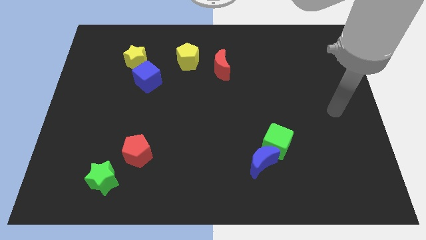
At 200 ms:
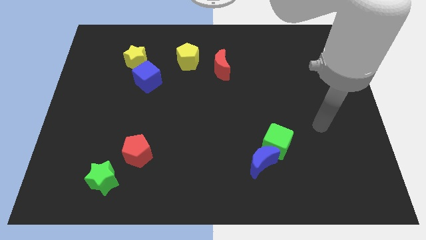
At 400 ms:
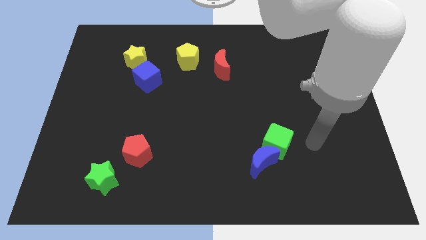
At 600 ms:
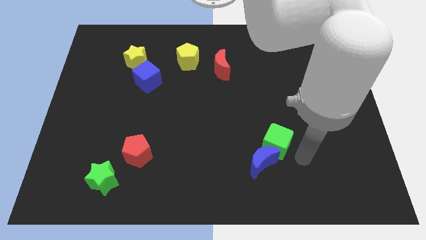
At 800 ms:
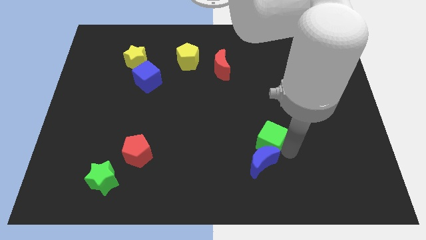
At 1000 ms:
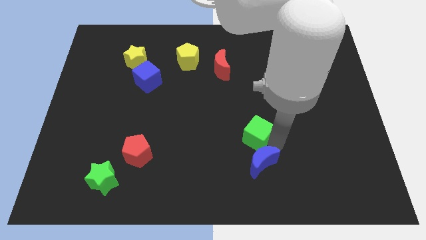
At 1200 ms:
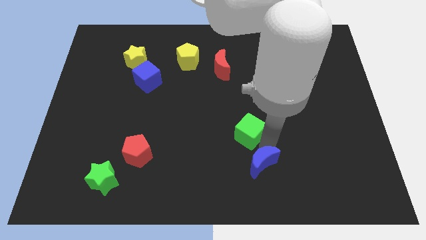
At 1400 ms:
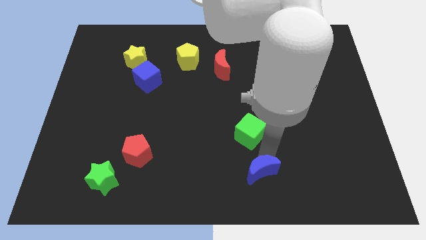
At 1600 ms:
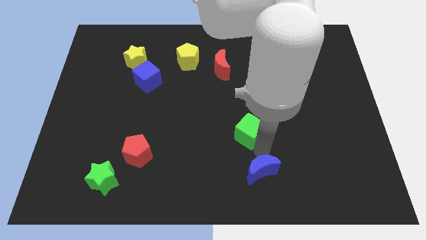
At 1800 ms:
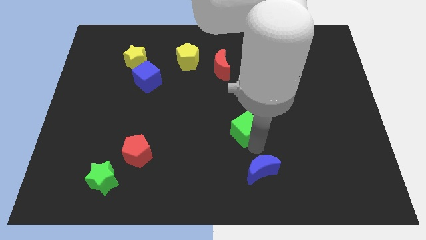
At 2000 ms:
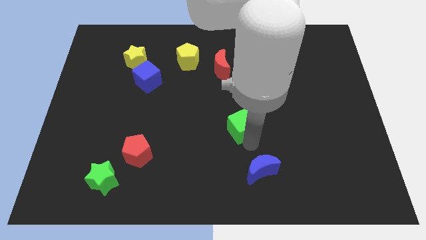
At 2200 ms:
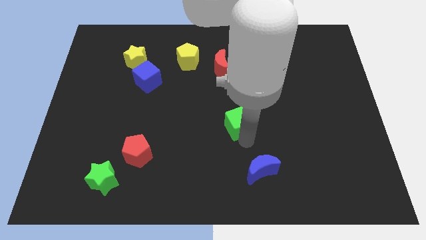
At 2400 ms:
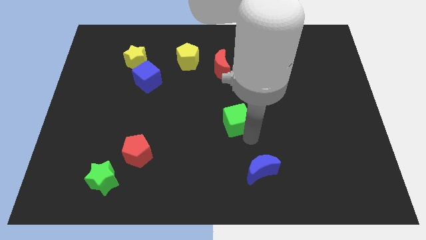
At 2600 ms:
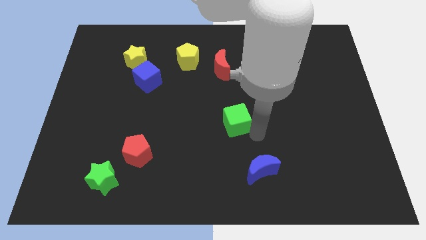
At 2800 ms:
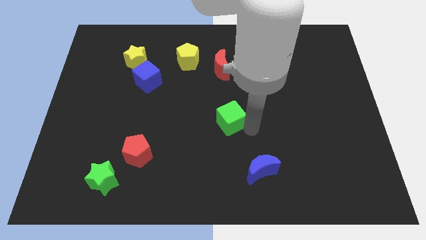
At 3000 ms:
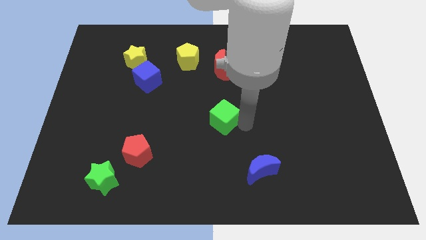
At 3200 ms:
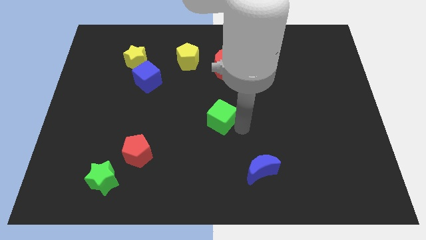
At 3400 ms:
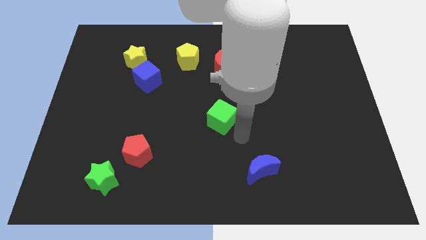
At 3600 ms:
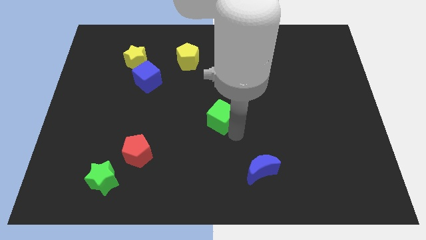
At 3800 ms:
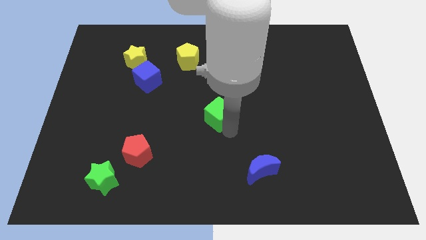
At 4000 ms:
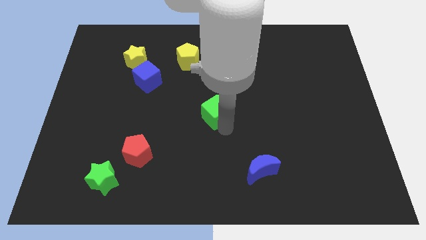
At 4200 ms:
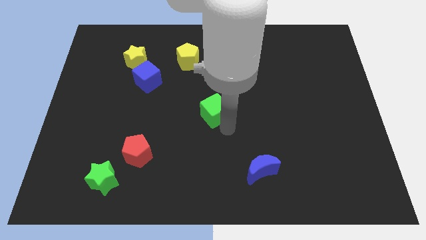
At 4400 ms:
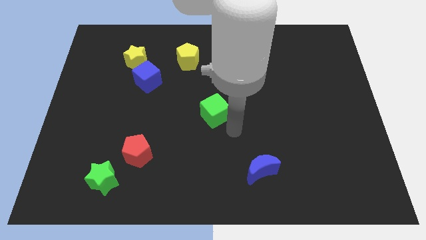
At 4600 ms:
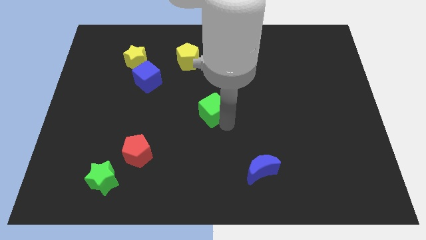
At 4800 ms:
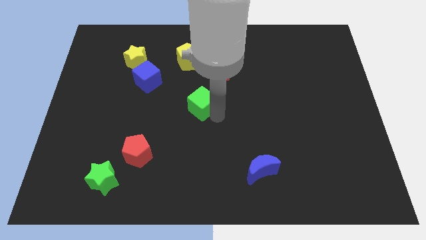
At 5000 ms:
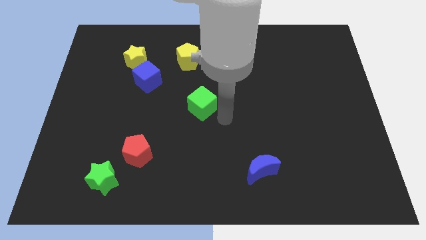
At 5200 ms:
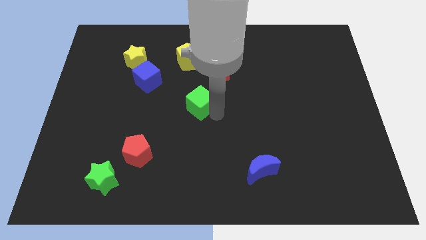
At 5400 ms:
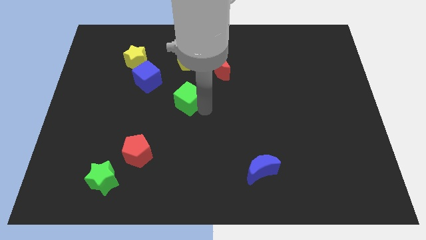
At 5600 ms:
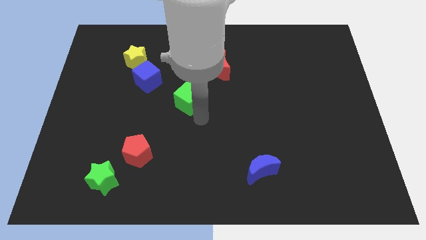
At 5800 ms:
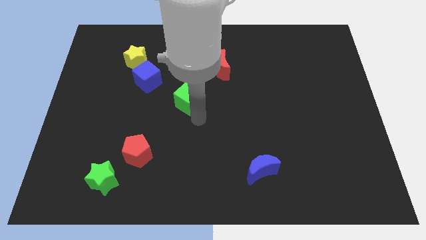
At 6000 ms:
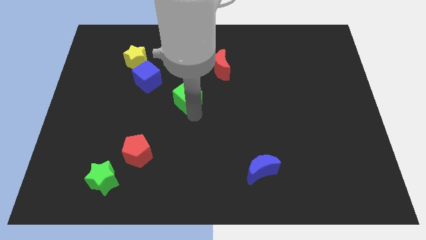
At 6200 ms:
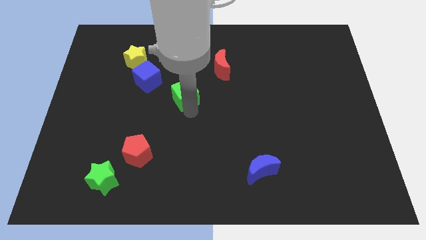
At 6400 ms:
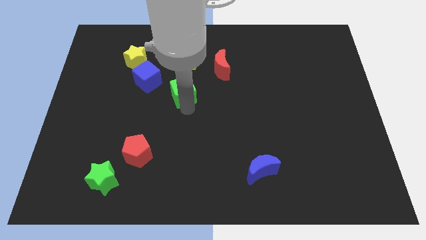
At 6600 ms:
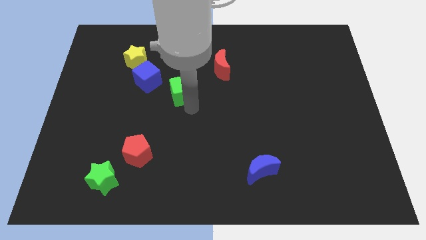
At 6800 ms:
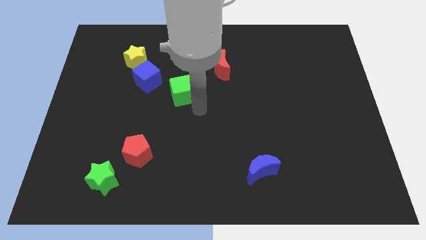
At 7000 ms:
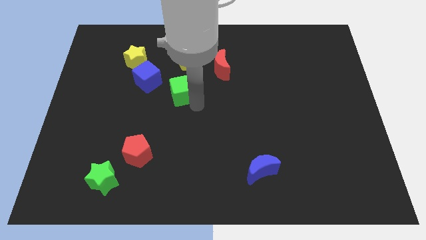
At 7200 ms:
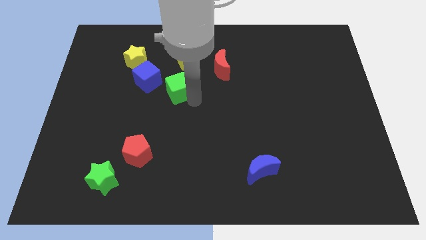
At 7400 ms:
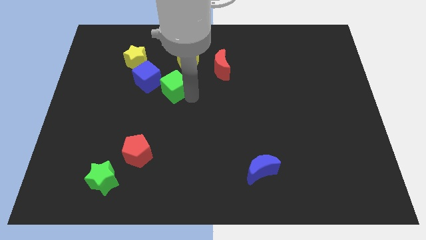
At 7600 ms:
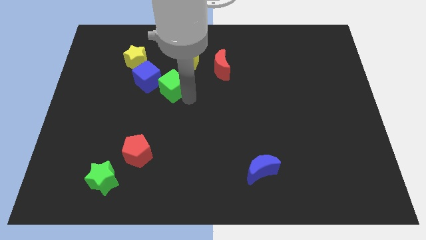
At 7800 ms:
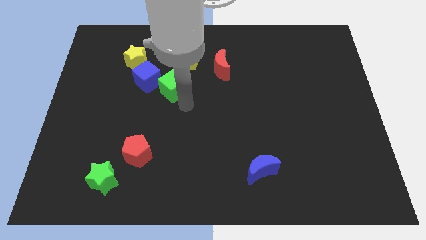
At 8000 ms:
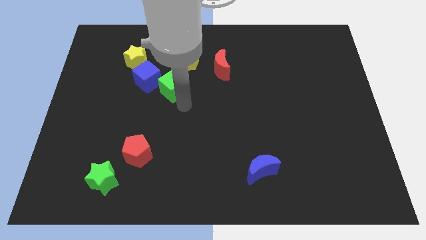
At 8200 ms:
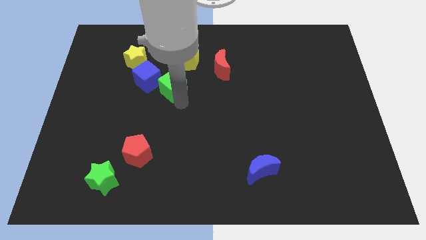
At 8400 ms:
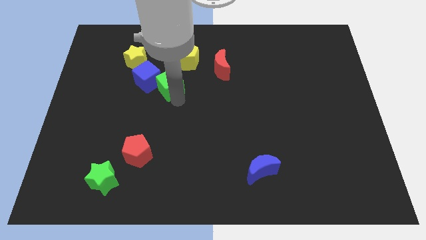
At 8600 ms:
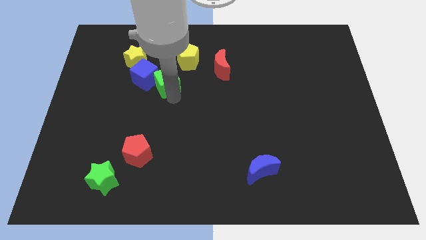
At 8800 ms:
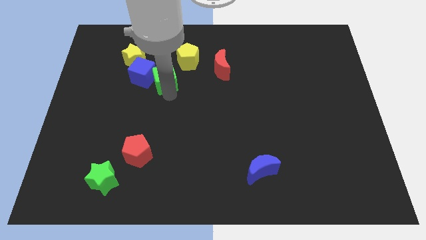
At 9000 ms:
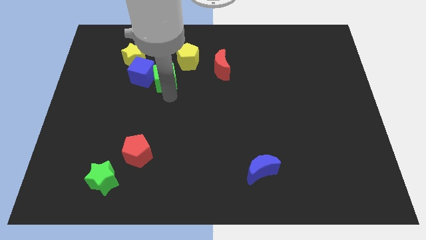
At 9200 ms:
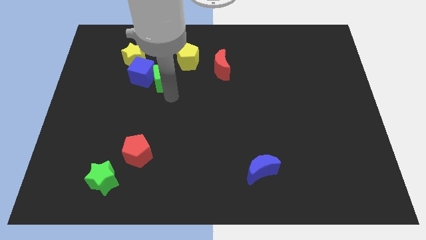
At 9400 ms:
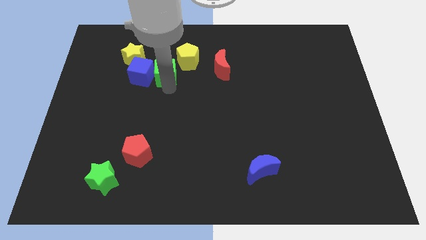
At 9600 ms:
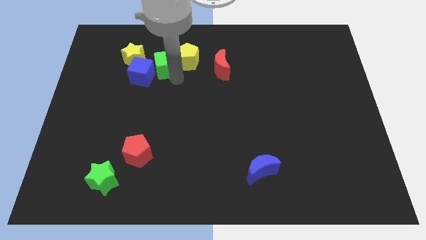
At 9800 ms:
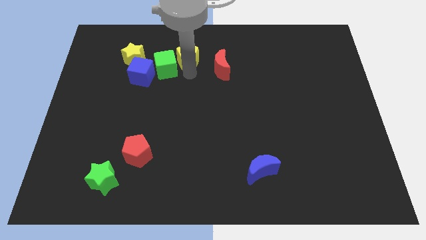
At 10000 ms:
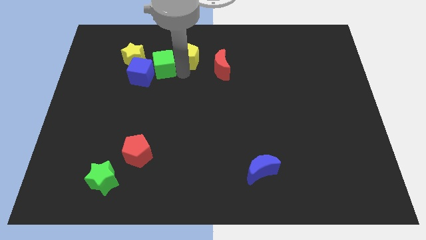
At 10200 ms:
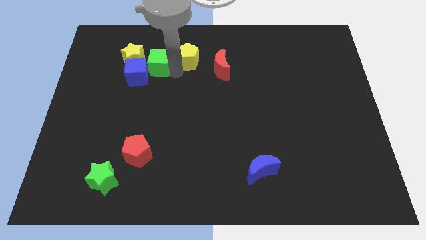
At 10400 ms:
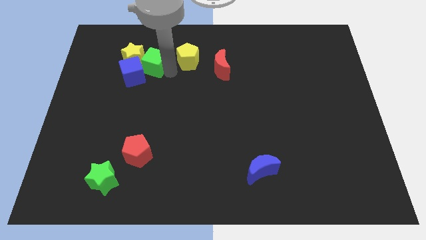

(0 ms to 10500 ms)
move the green cube close to the yellow star

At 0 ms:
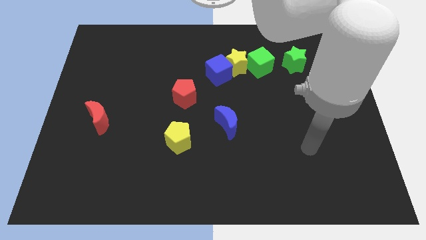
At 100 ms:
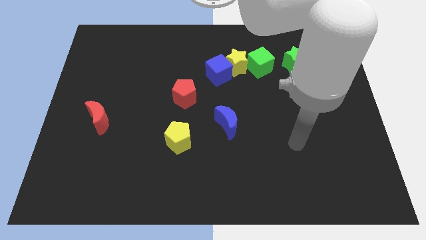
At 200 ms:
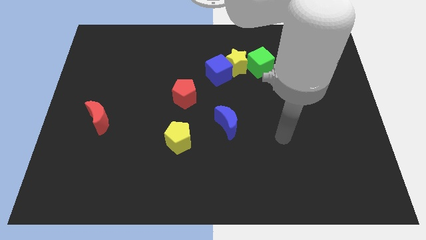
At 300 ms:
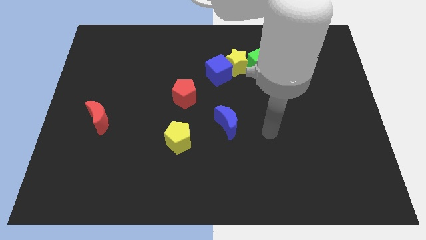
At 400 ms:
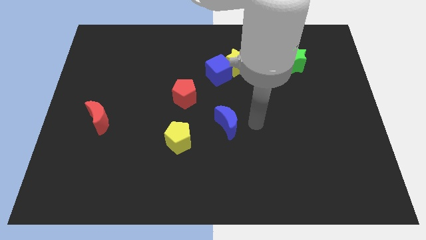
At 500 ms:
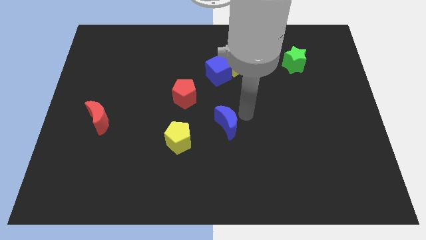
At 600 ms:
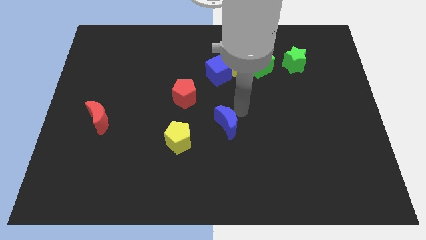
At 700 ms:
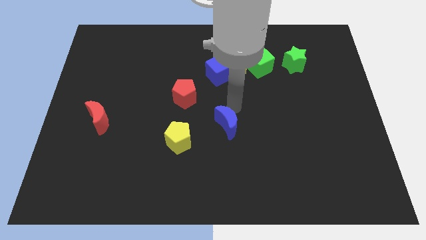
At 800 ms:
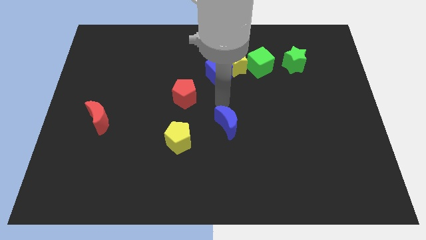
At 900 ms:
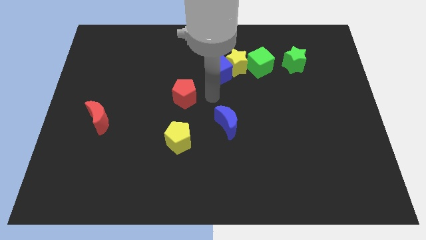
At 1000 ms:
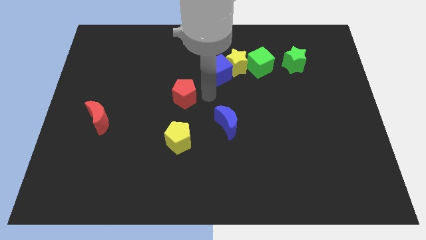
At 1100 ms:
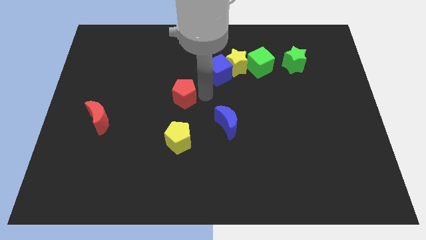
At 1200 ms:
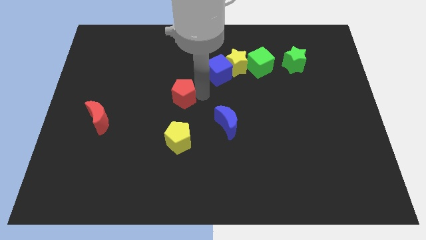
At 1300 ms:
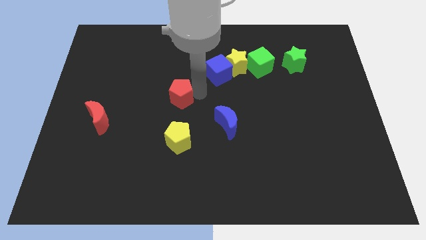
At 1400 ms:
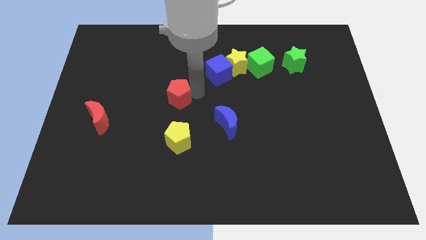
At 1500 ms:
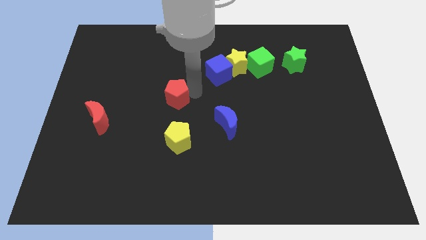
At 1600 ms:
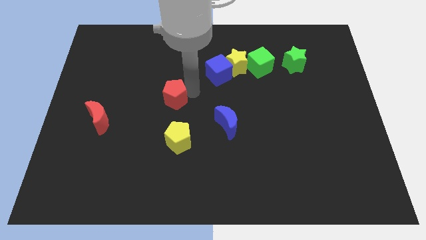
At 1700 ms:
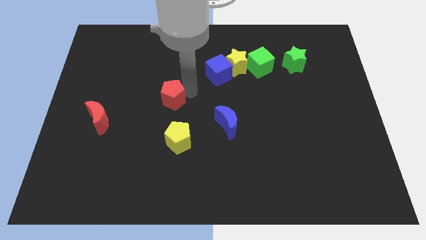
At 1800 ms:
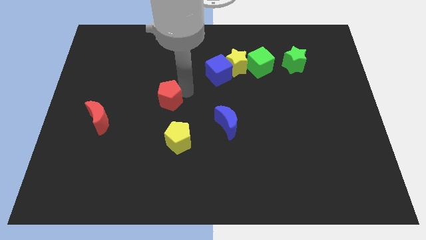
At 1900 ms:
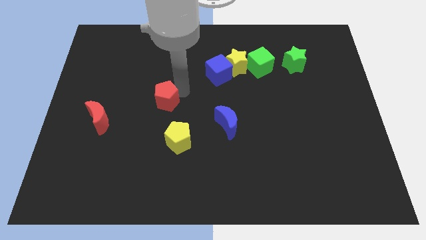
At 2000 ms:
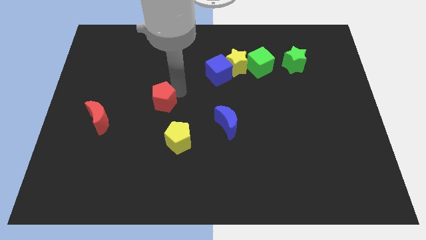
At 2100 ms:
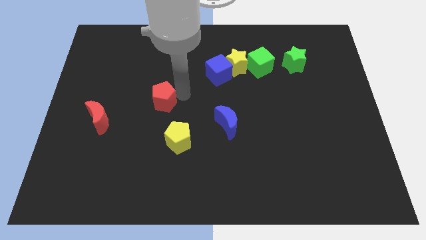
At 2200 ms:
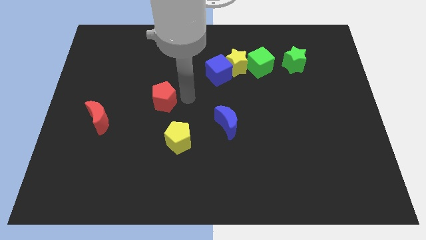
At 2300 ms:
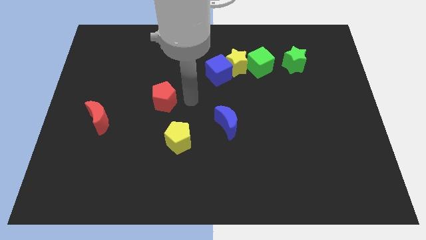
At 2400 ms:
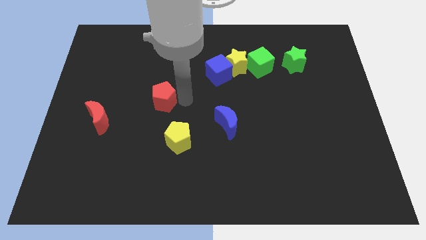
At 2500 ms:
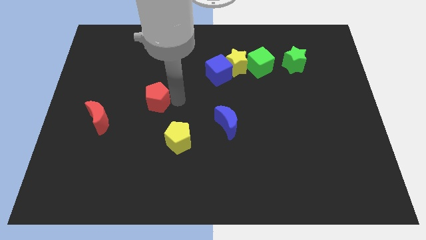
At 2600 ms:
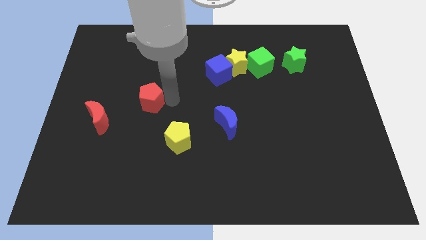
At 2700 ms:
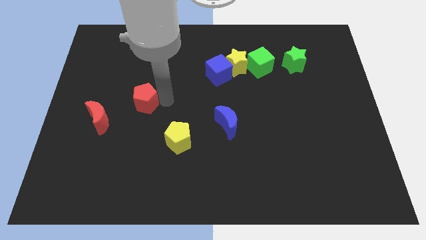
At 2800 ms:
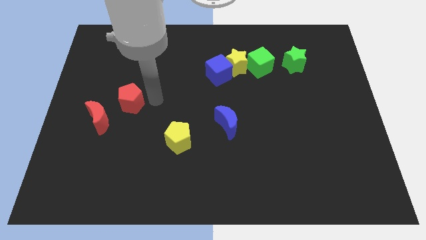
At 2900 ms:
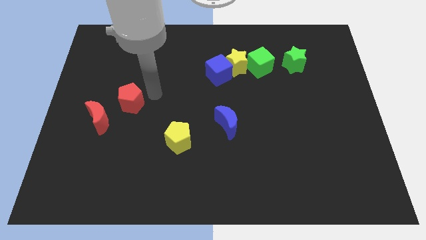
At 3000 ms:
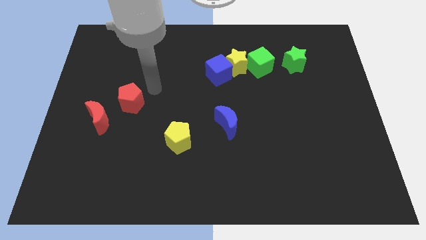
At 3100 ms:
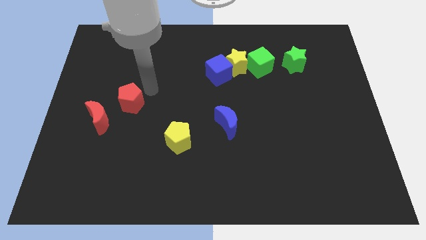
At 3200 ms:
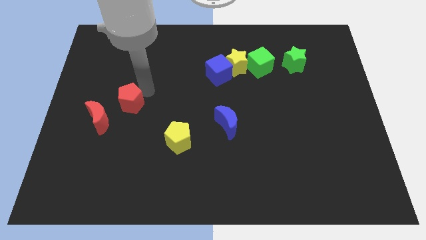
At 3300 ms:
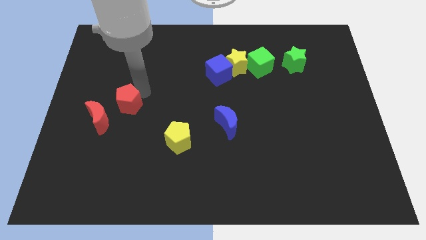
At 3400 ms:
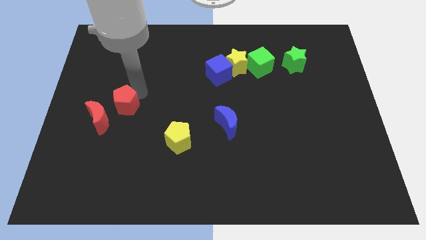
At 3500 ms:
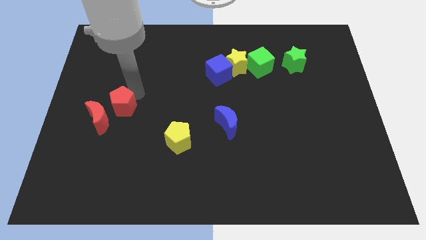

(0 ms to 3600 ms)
move the red pentagon to the red moon
